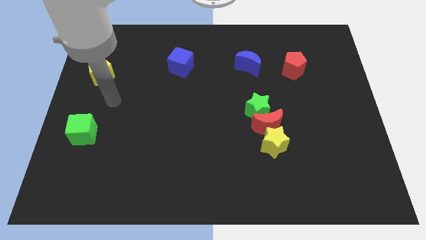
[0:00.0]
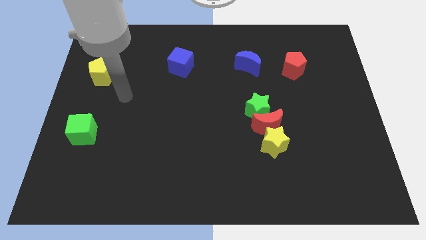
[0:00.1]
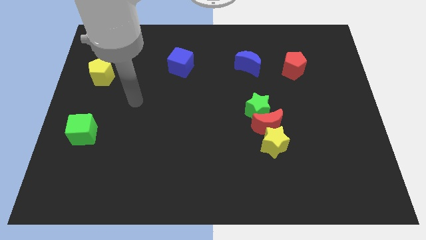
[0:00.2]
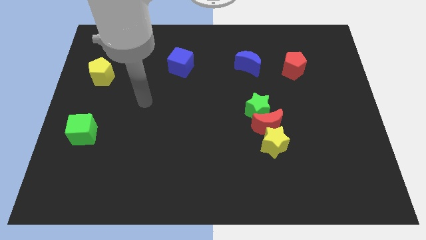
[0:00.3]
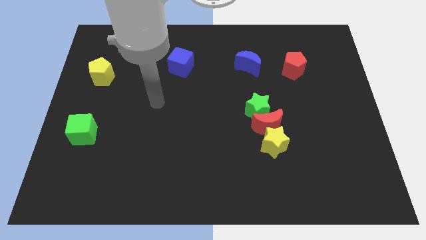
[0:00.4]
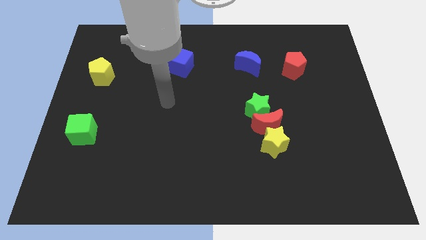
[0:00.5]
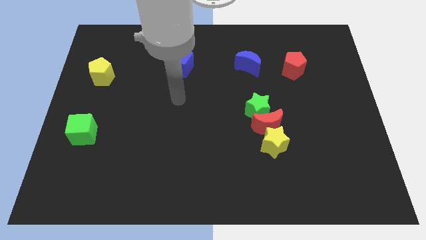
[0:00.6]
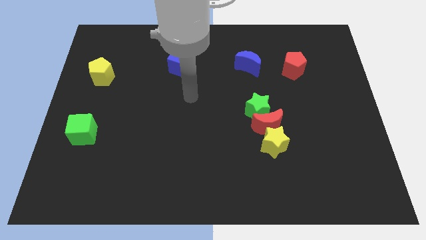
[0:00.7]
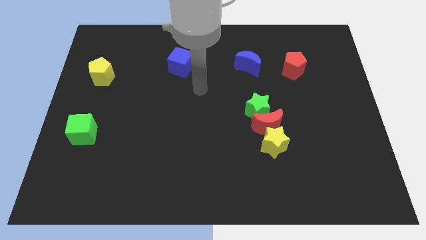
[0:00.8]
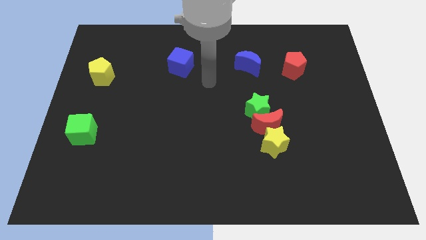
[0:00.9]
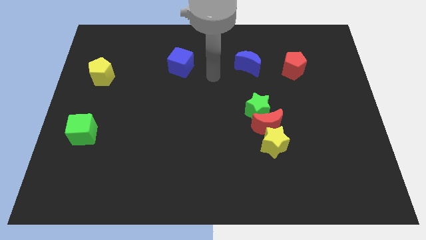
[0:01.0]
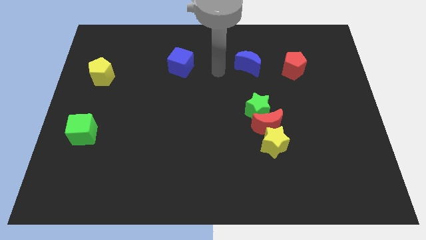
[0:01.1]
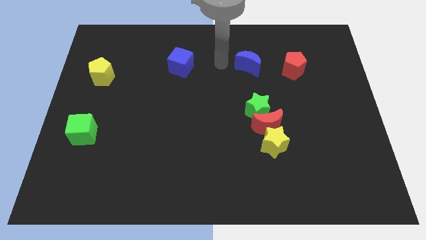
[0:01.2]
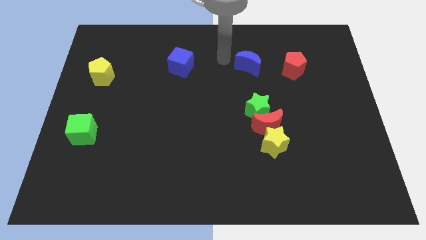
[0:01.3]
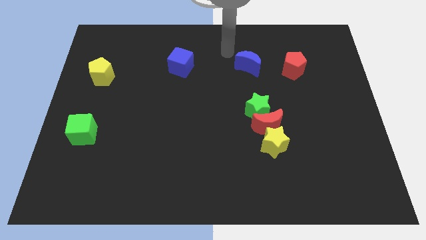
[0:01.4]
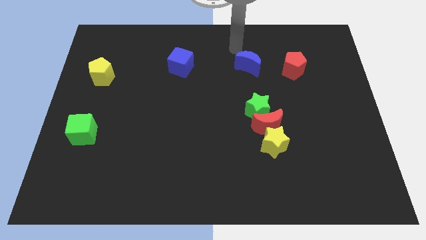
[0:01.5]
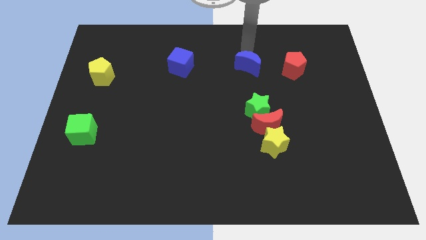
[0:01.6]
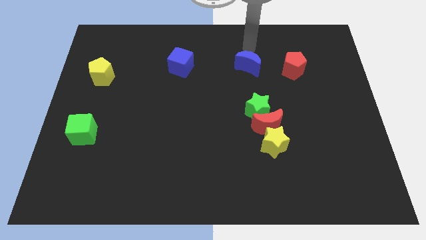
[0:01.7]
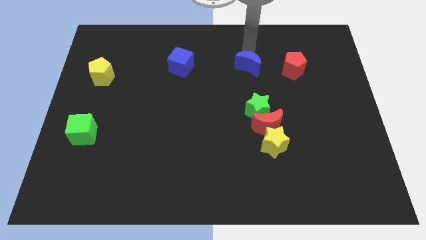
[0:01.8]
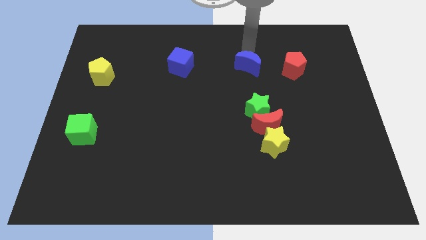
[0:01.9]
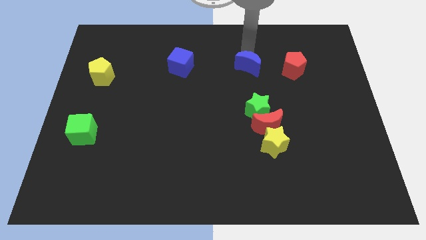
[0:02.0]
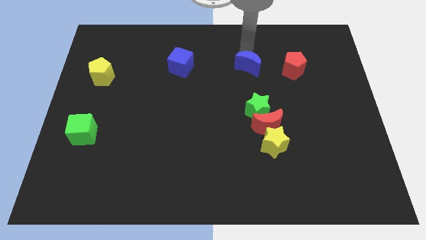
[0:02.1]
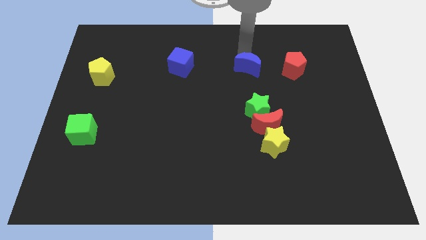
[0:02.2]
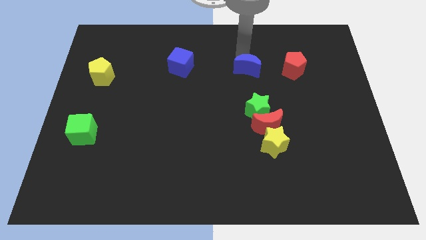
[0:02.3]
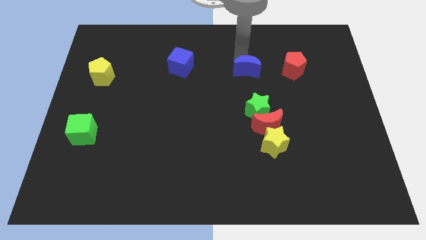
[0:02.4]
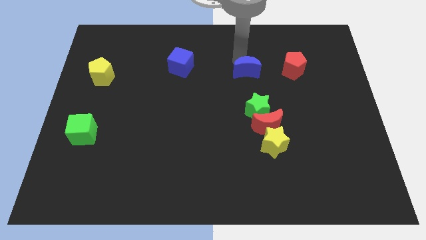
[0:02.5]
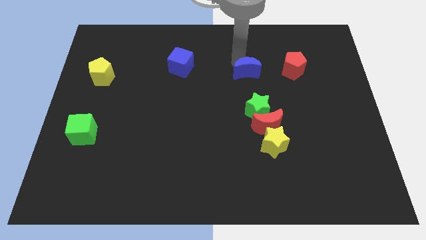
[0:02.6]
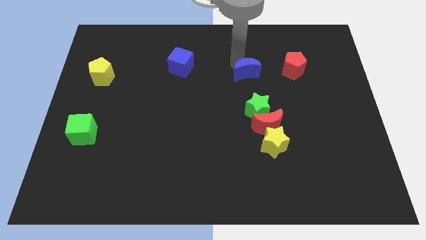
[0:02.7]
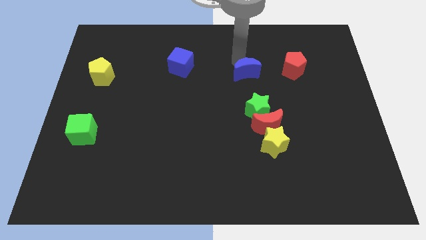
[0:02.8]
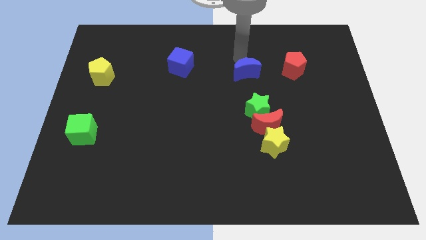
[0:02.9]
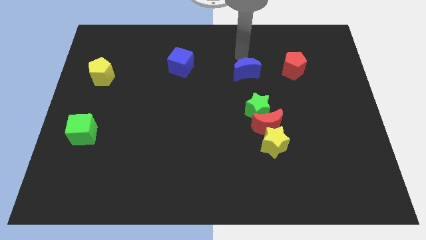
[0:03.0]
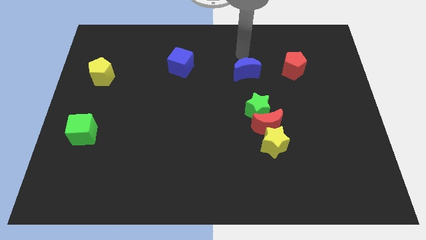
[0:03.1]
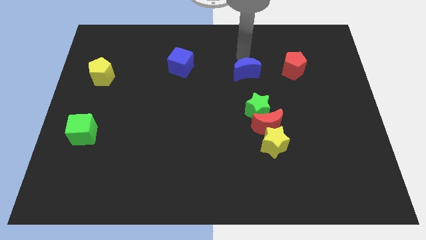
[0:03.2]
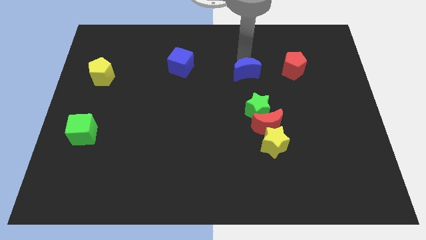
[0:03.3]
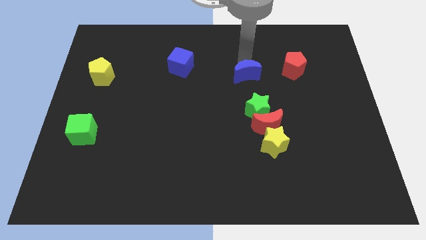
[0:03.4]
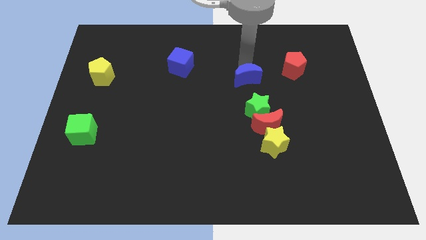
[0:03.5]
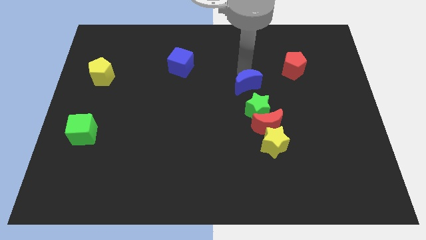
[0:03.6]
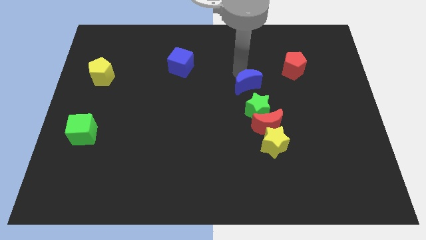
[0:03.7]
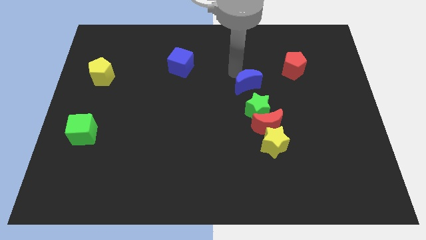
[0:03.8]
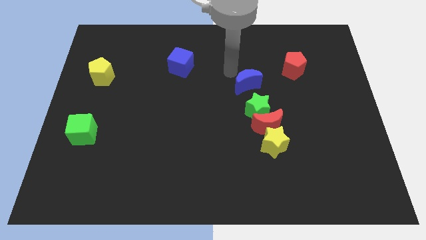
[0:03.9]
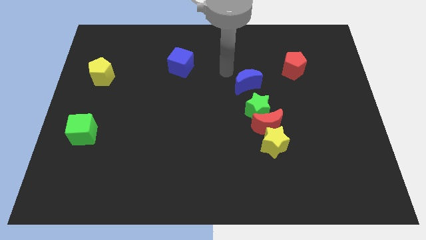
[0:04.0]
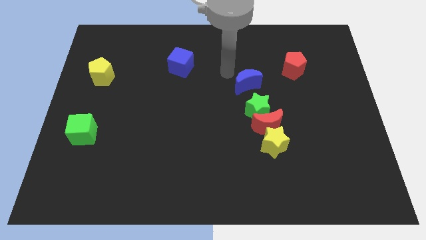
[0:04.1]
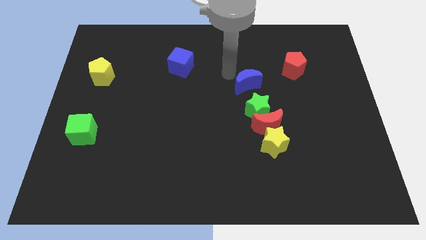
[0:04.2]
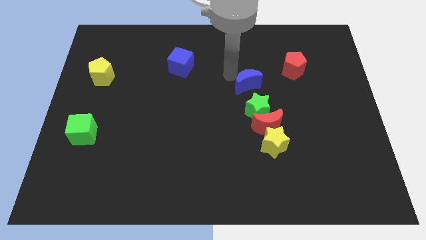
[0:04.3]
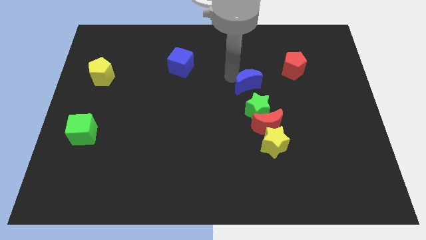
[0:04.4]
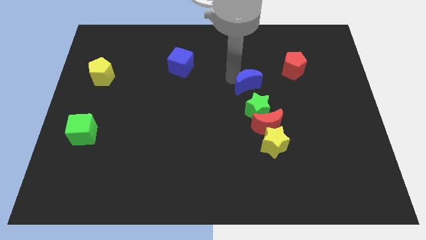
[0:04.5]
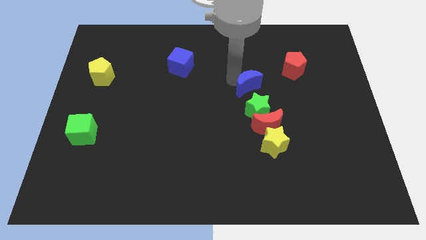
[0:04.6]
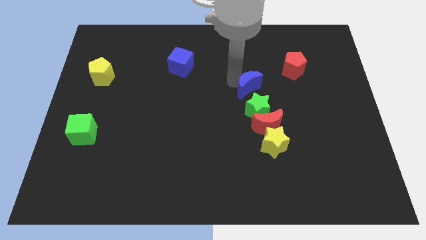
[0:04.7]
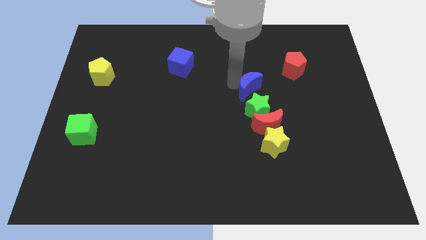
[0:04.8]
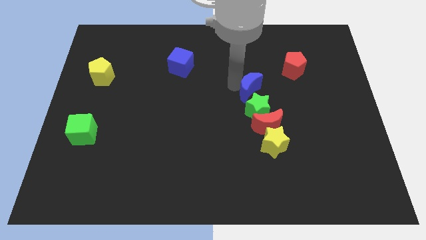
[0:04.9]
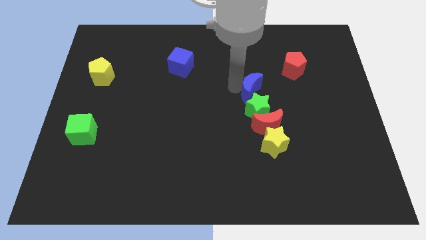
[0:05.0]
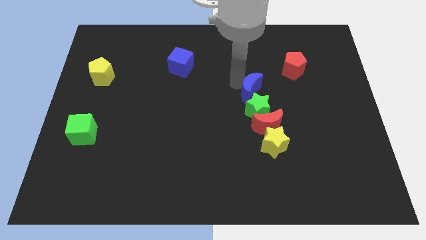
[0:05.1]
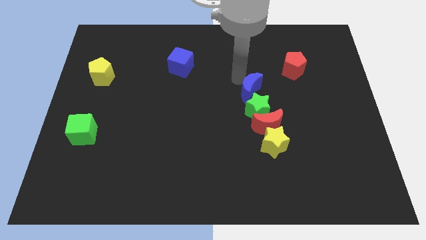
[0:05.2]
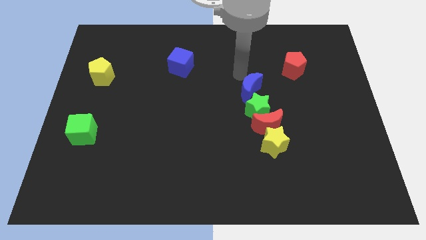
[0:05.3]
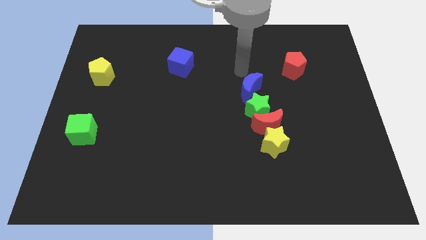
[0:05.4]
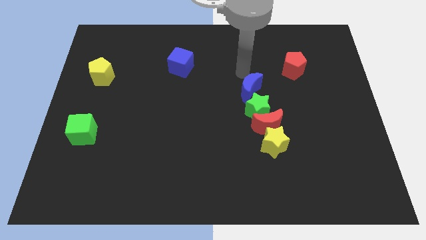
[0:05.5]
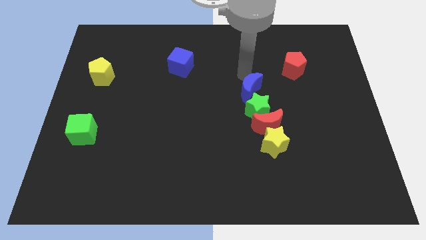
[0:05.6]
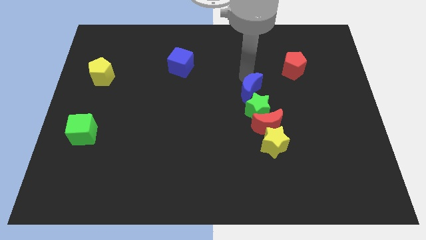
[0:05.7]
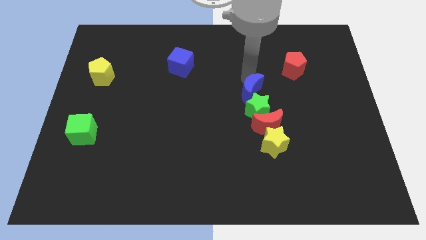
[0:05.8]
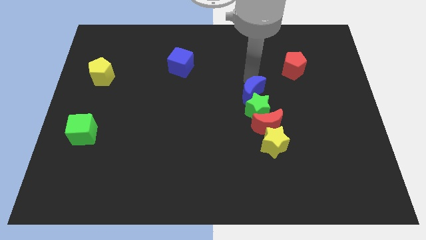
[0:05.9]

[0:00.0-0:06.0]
move the blue moon to the green star

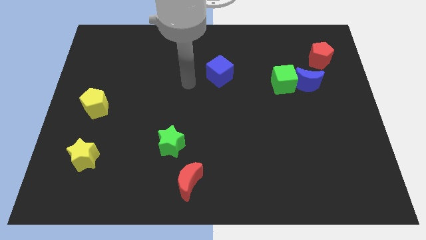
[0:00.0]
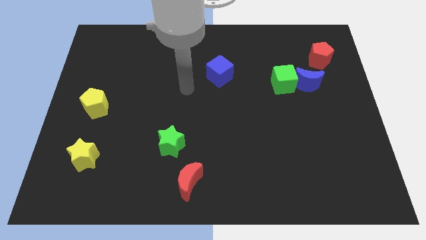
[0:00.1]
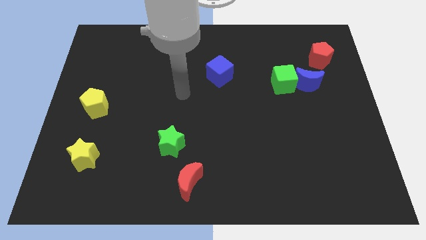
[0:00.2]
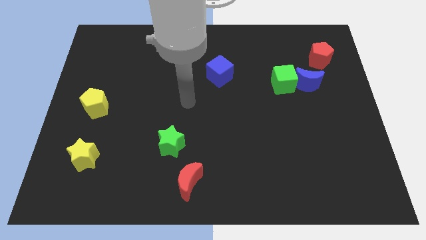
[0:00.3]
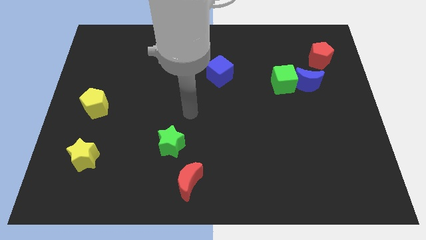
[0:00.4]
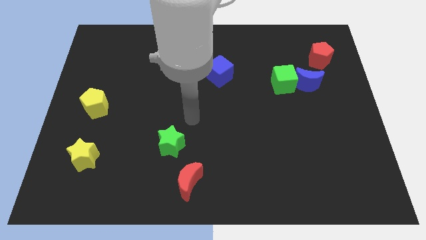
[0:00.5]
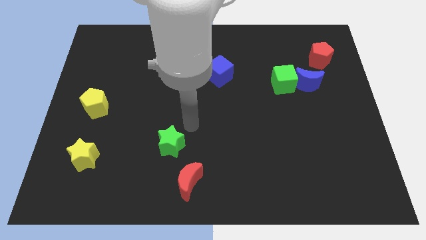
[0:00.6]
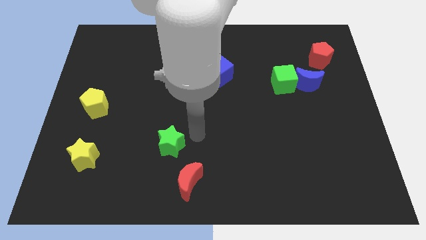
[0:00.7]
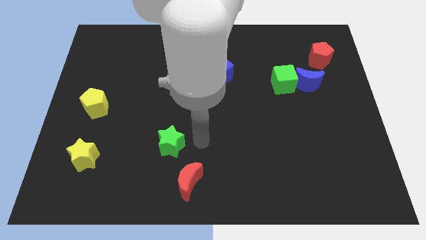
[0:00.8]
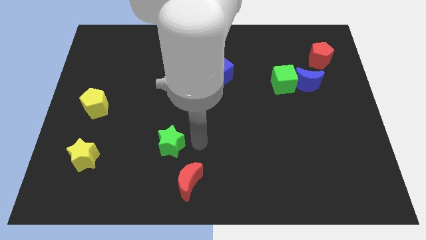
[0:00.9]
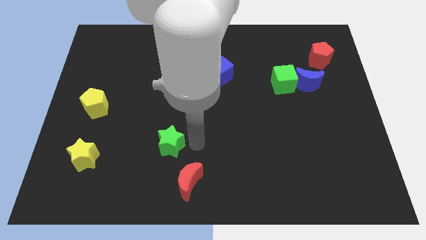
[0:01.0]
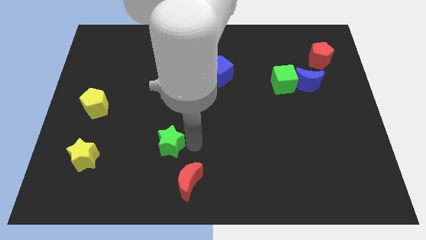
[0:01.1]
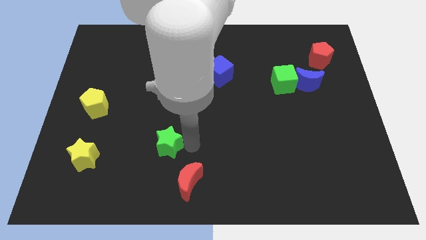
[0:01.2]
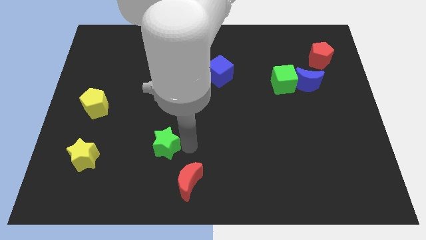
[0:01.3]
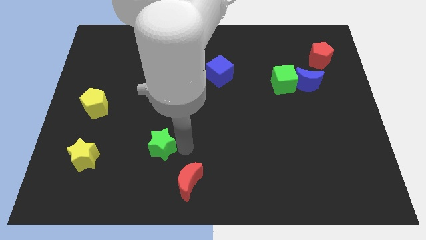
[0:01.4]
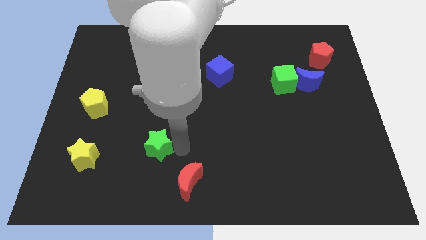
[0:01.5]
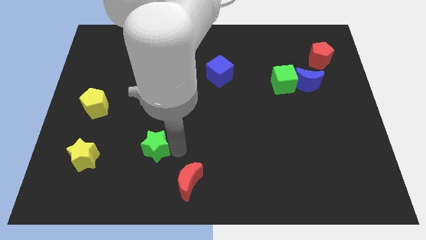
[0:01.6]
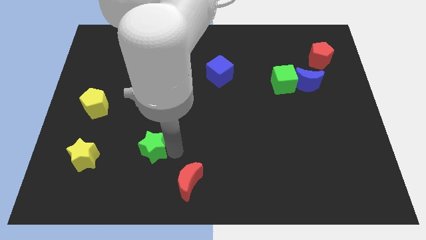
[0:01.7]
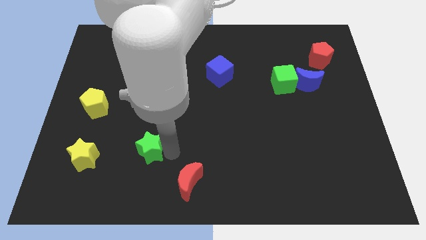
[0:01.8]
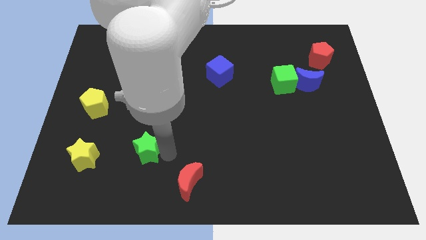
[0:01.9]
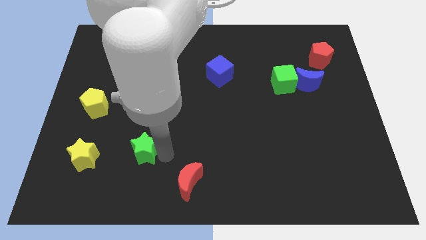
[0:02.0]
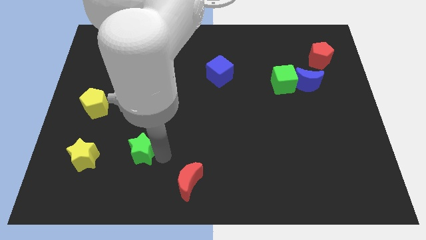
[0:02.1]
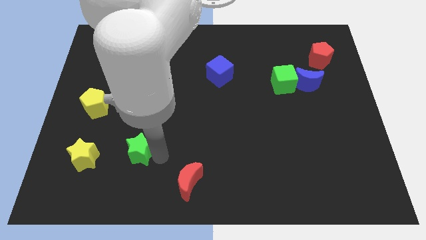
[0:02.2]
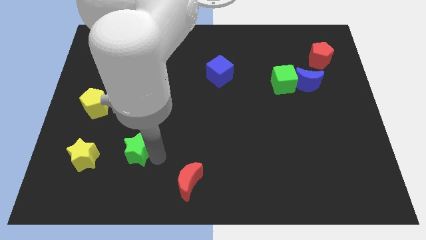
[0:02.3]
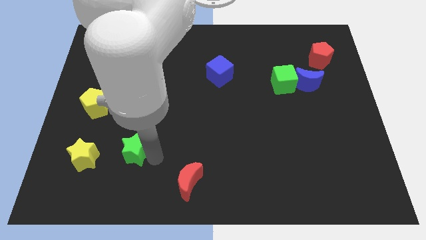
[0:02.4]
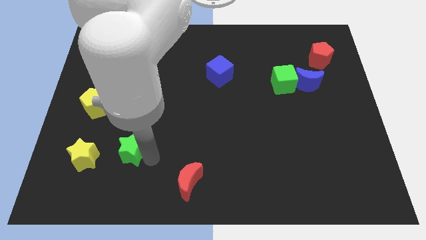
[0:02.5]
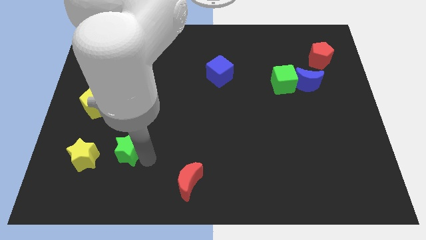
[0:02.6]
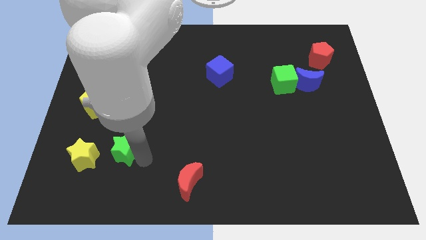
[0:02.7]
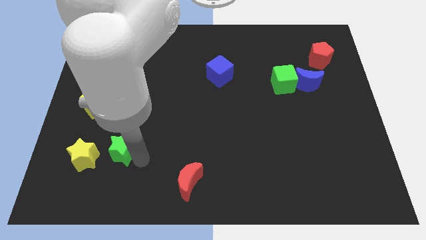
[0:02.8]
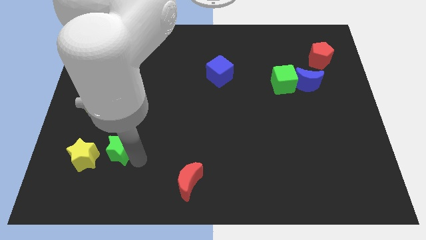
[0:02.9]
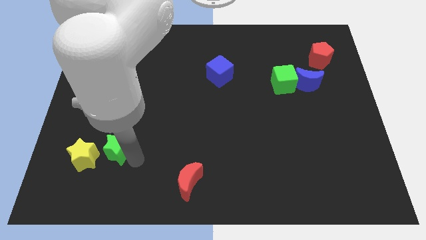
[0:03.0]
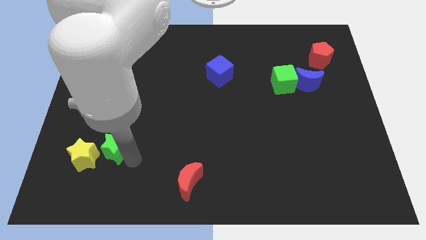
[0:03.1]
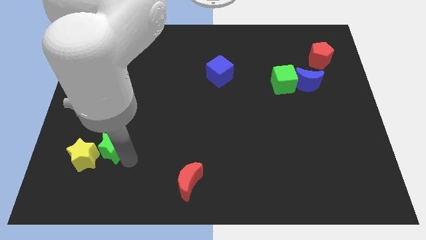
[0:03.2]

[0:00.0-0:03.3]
move the green star close to the yellow star
